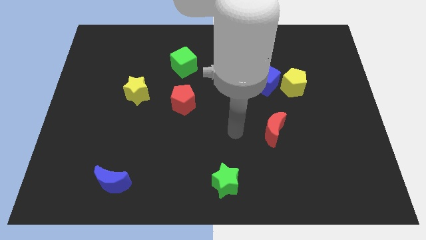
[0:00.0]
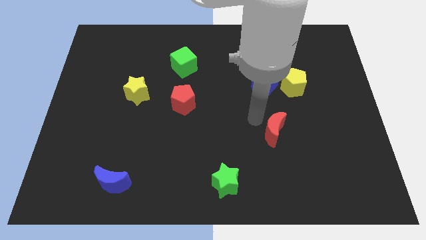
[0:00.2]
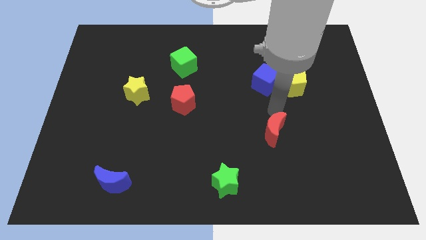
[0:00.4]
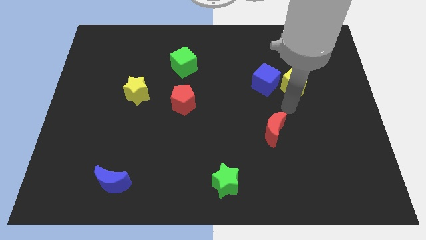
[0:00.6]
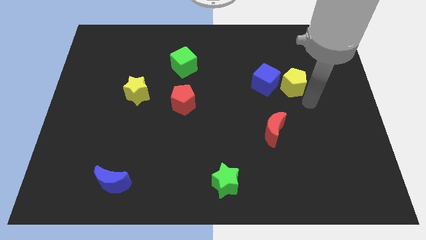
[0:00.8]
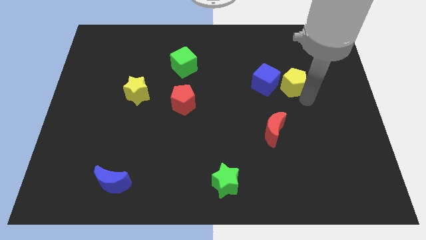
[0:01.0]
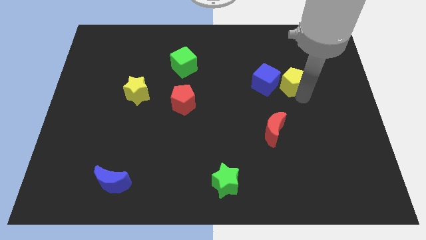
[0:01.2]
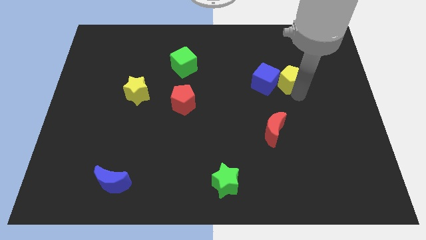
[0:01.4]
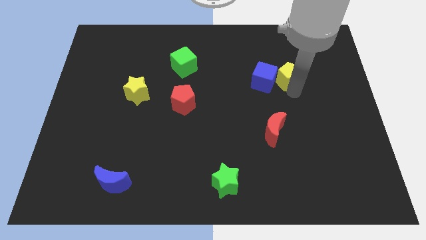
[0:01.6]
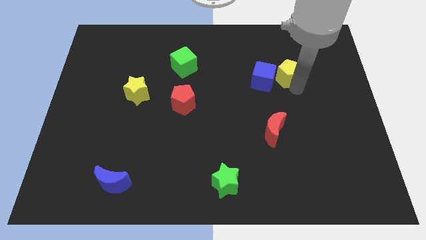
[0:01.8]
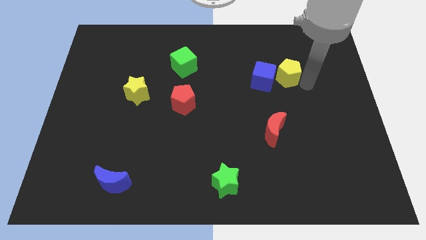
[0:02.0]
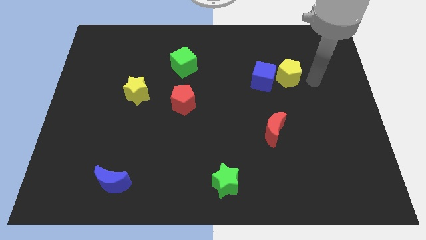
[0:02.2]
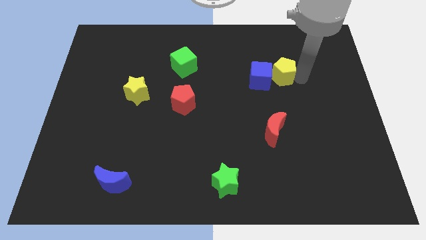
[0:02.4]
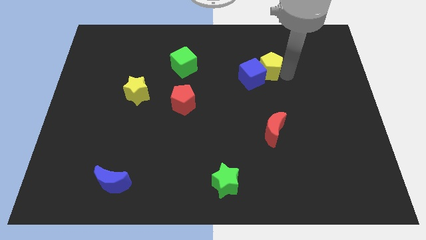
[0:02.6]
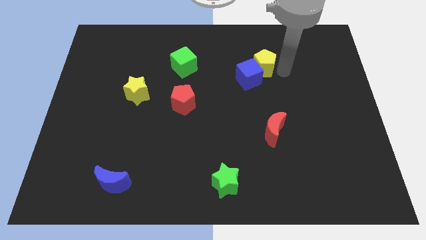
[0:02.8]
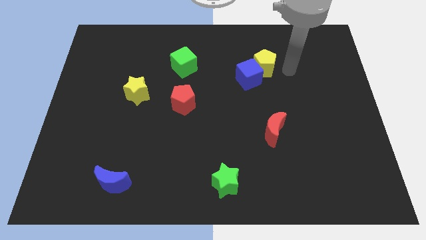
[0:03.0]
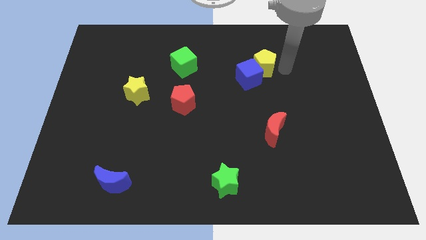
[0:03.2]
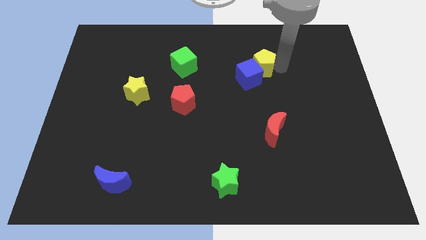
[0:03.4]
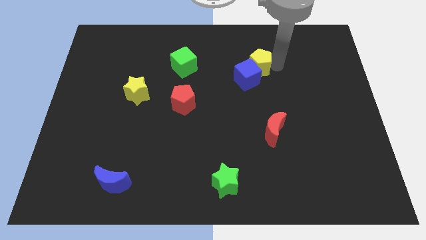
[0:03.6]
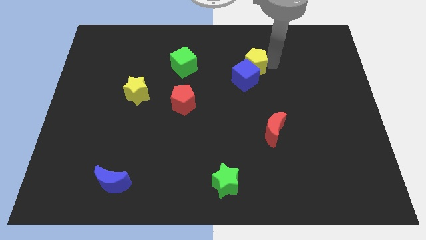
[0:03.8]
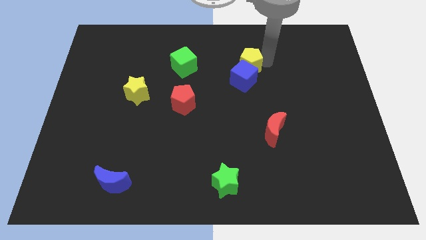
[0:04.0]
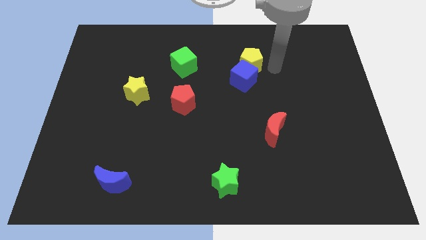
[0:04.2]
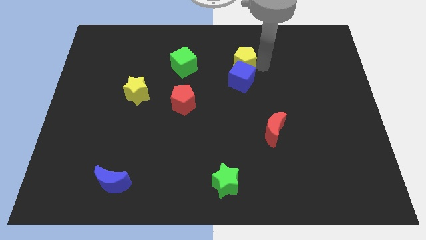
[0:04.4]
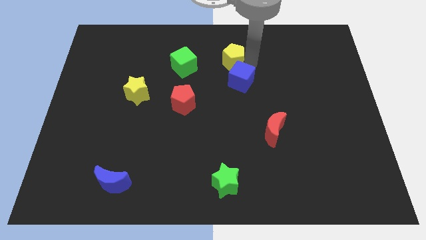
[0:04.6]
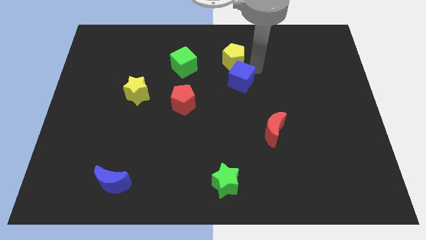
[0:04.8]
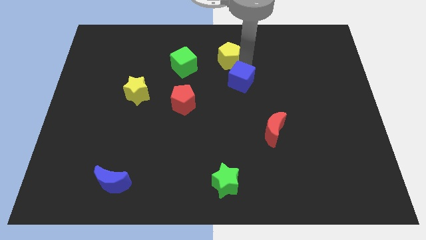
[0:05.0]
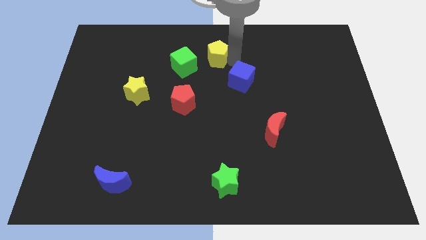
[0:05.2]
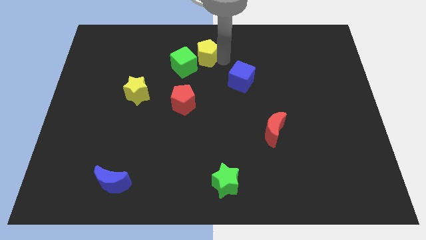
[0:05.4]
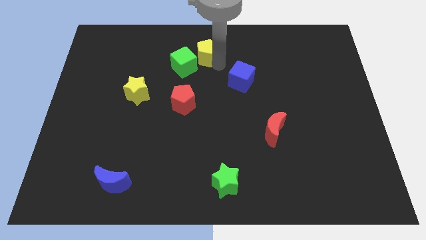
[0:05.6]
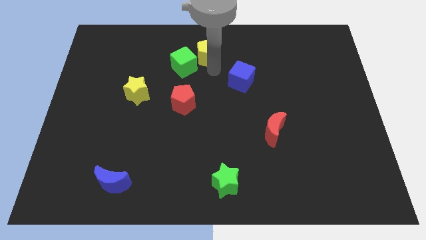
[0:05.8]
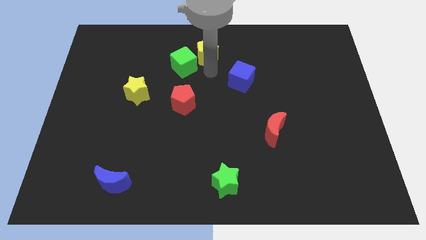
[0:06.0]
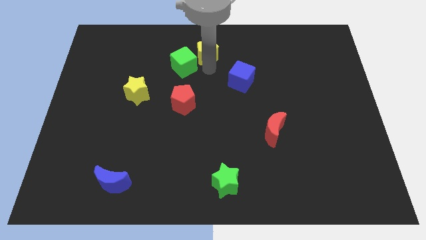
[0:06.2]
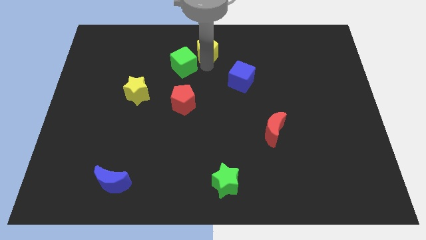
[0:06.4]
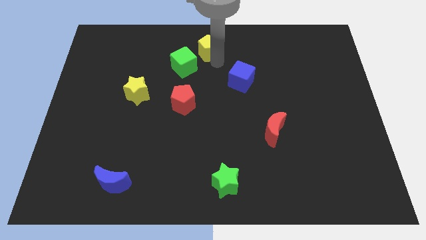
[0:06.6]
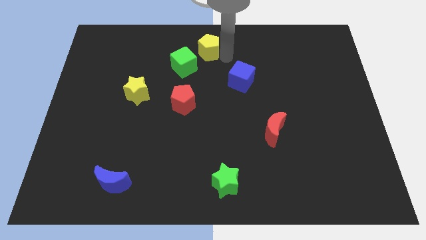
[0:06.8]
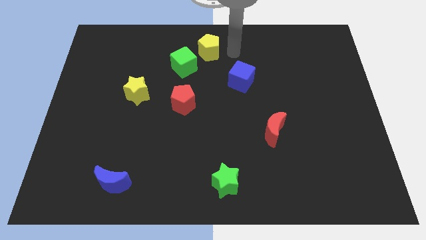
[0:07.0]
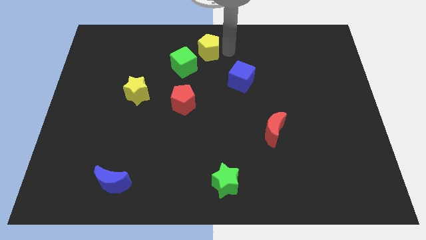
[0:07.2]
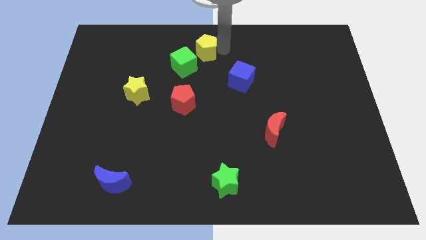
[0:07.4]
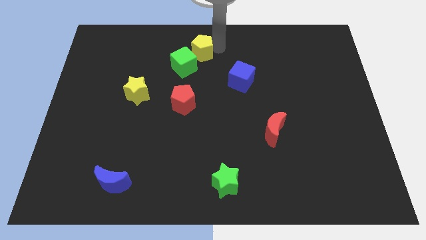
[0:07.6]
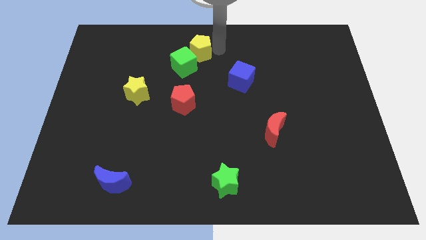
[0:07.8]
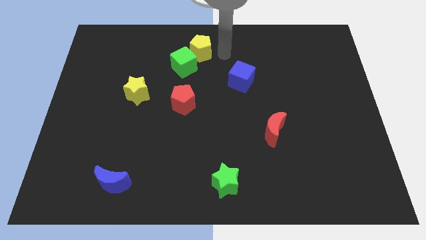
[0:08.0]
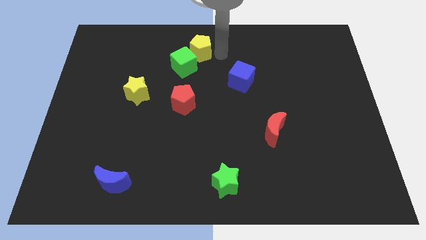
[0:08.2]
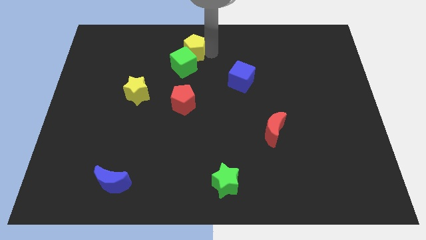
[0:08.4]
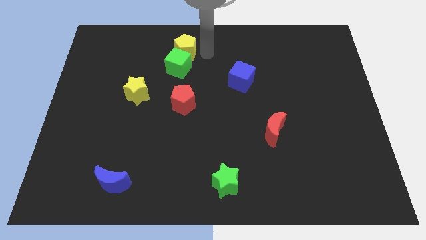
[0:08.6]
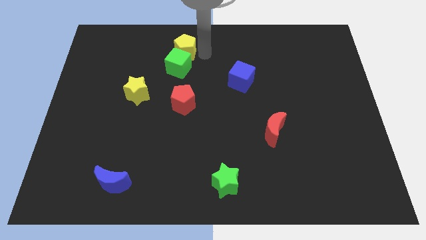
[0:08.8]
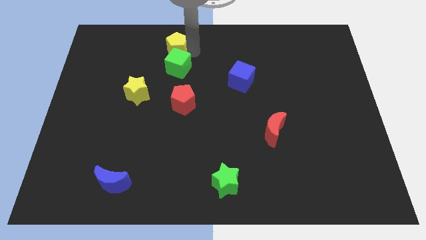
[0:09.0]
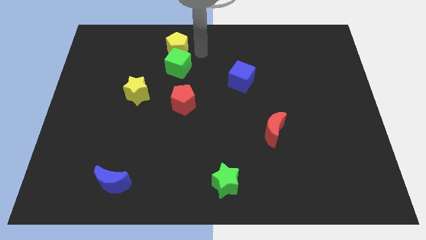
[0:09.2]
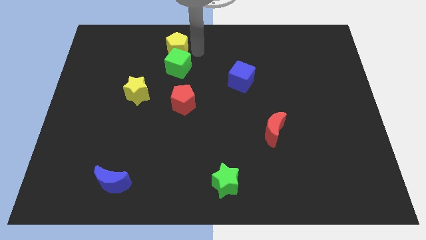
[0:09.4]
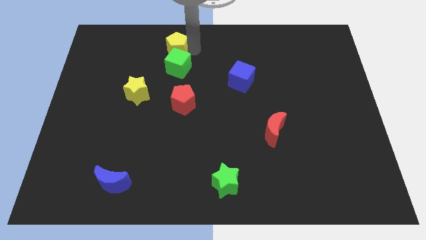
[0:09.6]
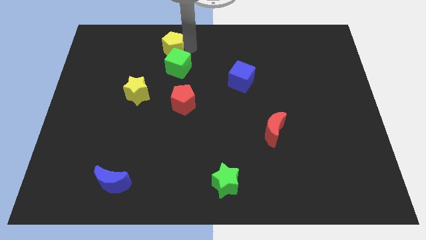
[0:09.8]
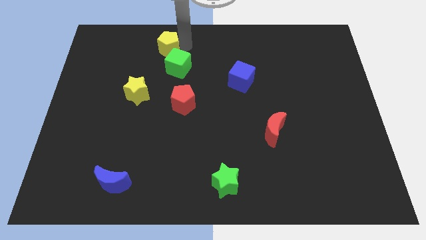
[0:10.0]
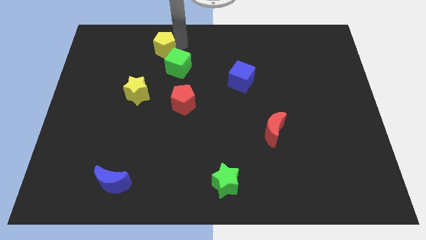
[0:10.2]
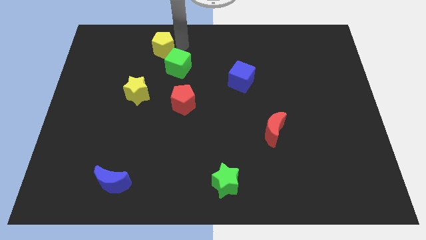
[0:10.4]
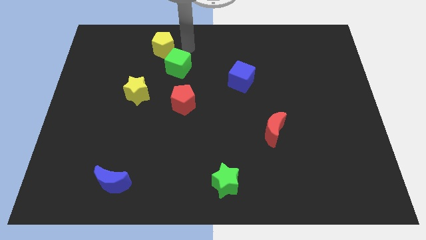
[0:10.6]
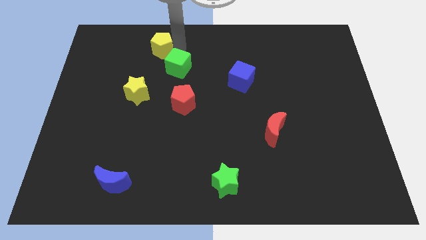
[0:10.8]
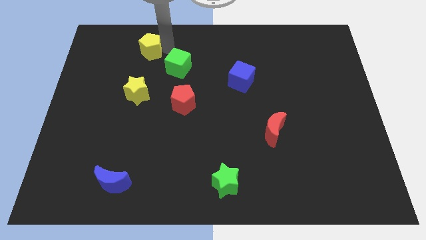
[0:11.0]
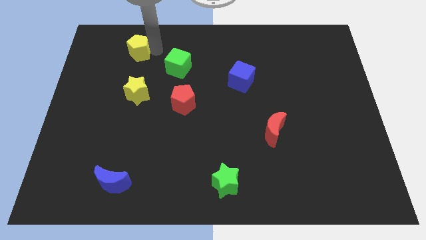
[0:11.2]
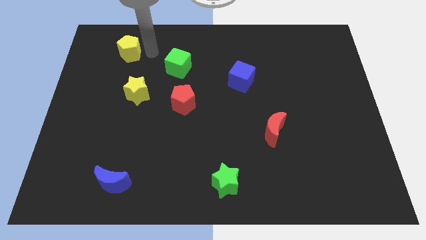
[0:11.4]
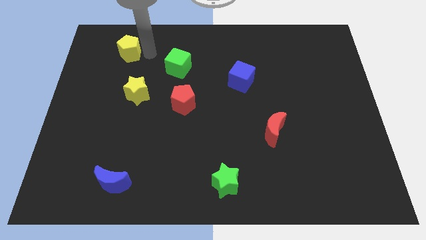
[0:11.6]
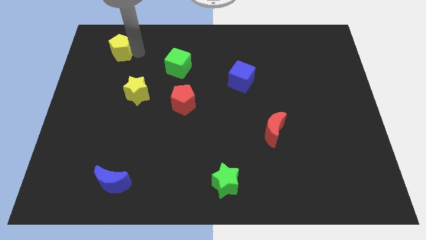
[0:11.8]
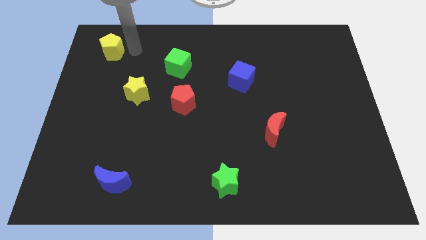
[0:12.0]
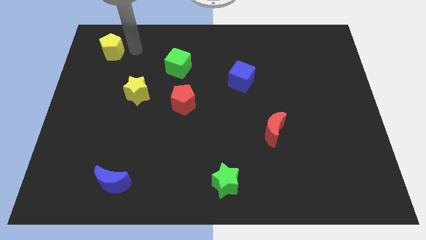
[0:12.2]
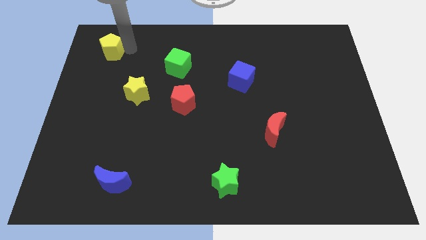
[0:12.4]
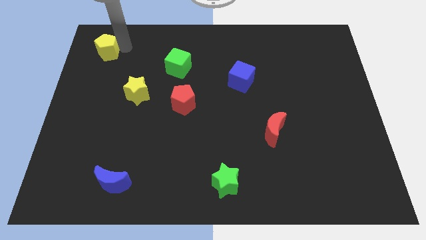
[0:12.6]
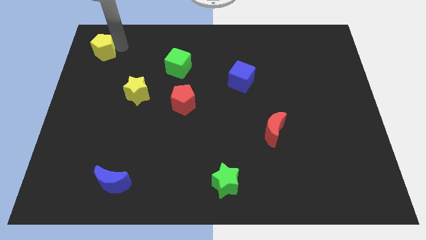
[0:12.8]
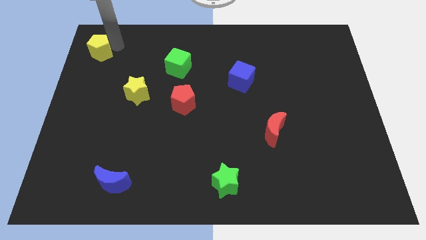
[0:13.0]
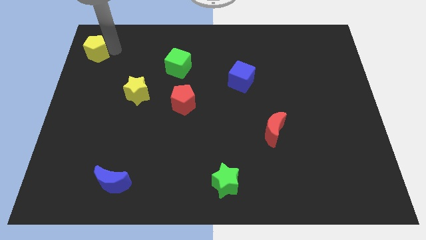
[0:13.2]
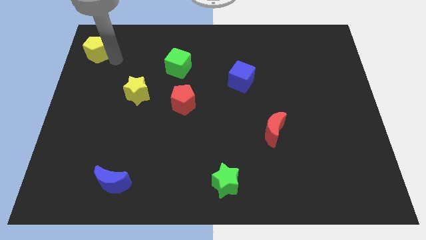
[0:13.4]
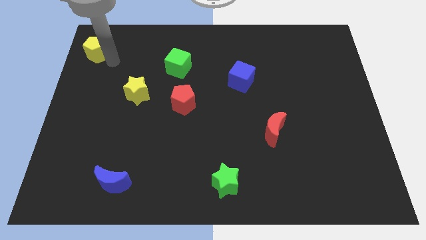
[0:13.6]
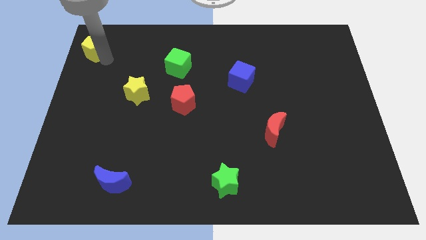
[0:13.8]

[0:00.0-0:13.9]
slide the yellow pentagon to the top left corner
